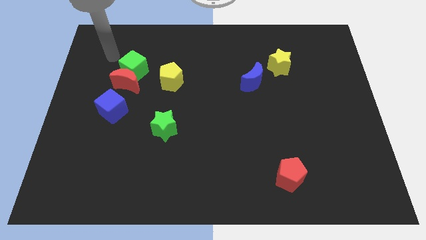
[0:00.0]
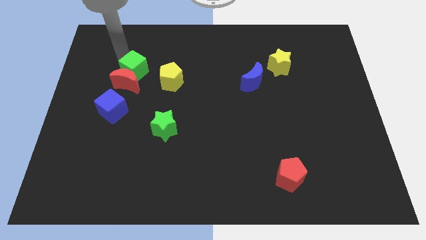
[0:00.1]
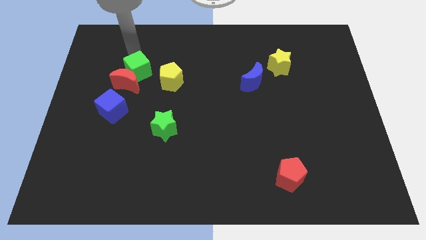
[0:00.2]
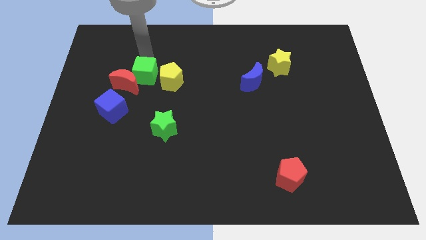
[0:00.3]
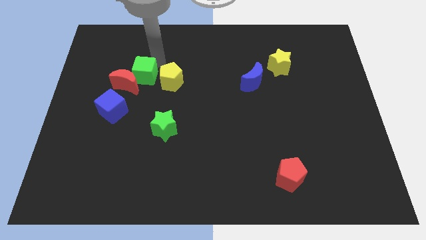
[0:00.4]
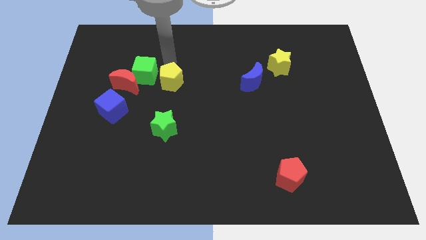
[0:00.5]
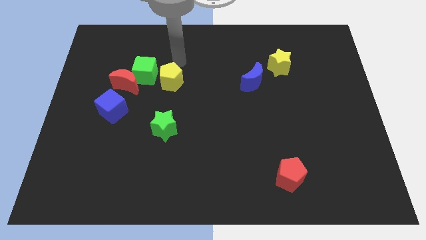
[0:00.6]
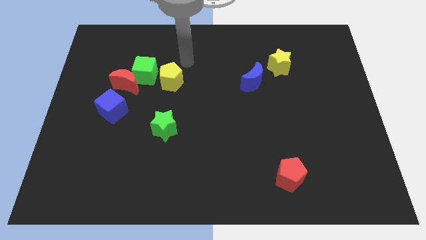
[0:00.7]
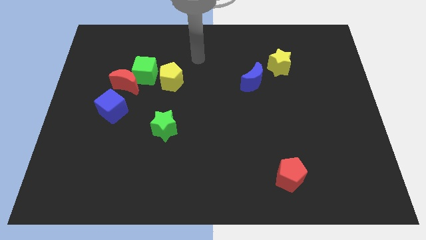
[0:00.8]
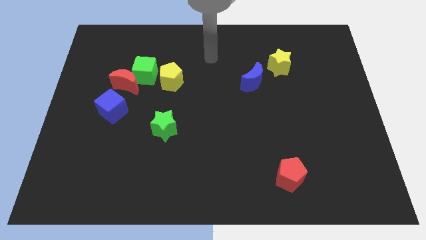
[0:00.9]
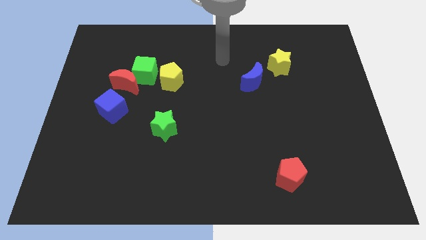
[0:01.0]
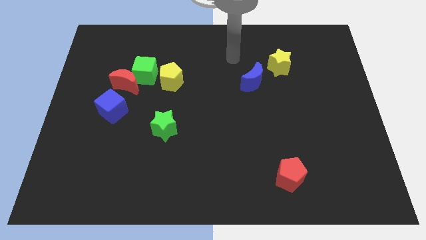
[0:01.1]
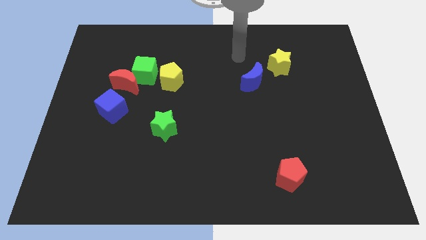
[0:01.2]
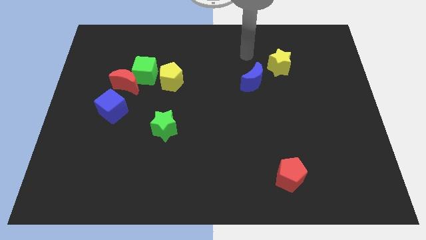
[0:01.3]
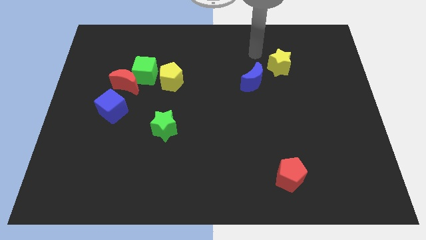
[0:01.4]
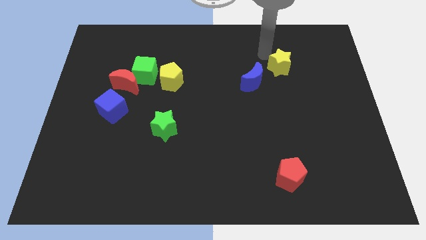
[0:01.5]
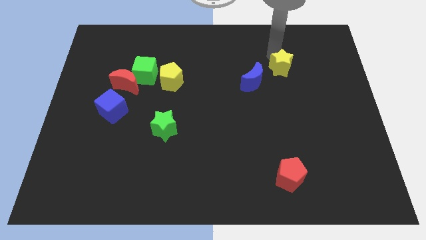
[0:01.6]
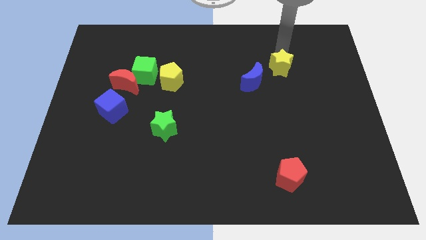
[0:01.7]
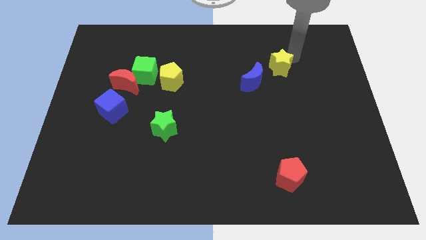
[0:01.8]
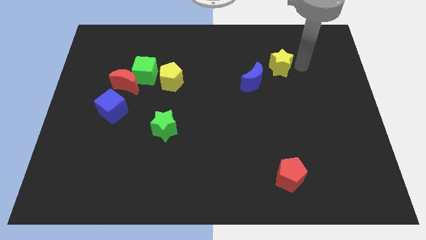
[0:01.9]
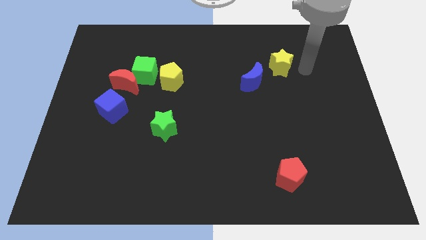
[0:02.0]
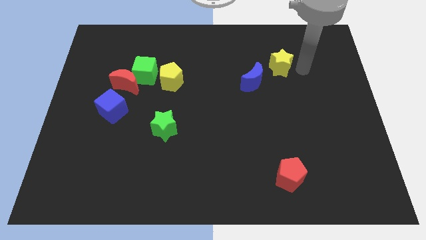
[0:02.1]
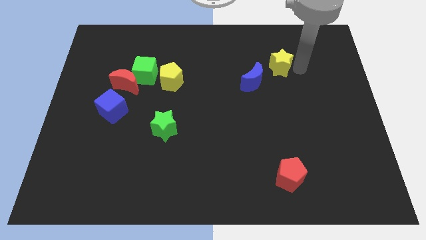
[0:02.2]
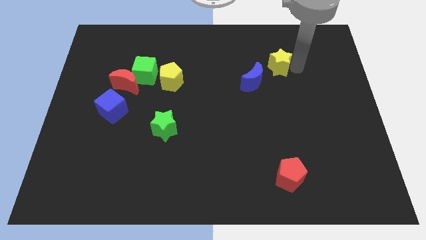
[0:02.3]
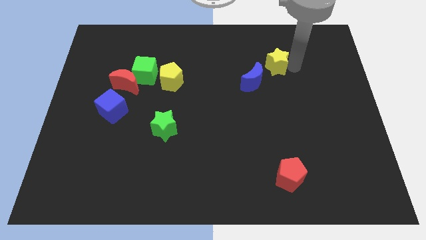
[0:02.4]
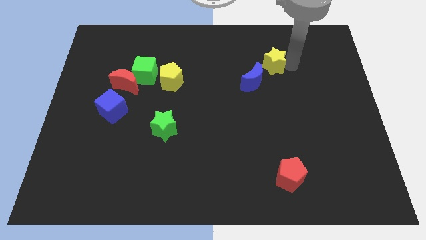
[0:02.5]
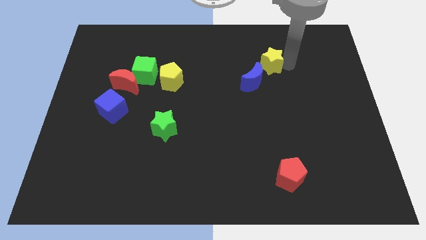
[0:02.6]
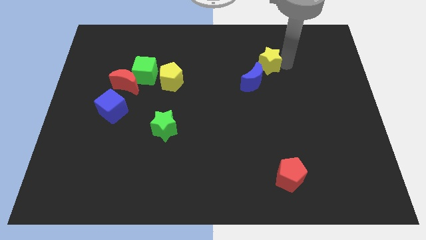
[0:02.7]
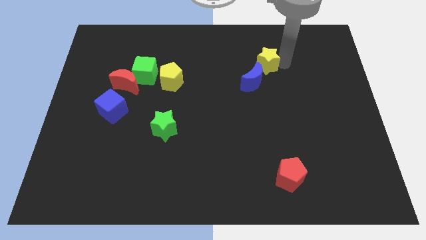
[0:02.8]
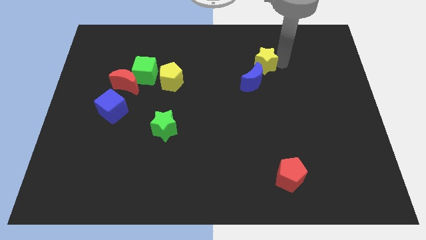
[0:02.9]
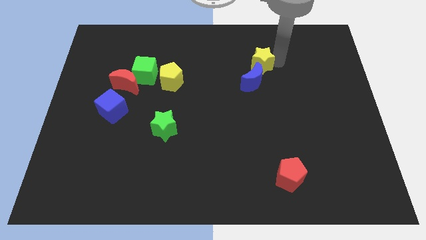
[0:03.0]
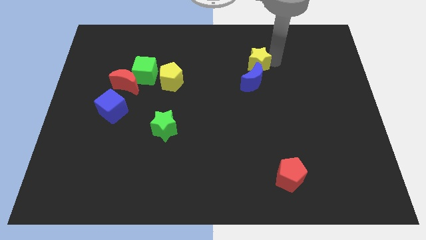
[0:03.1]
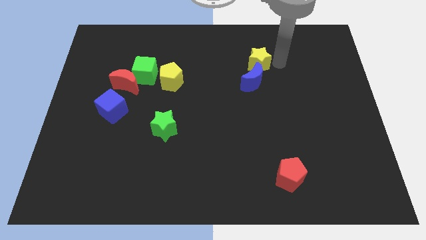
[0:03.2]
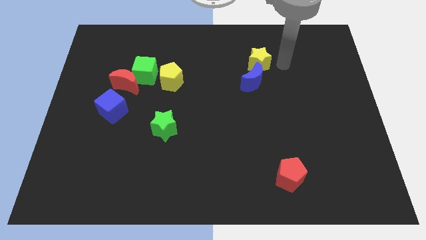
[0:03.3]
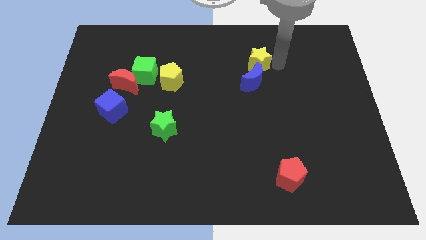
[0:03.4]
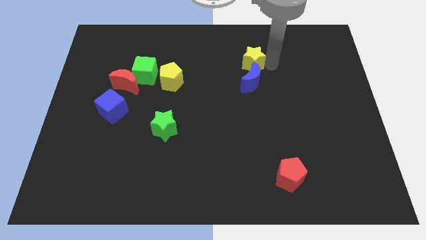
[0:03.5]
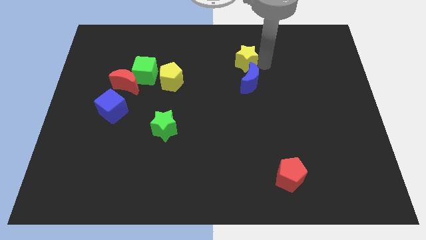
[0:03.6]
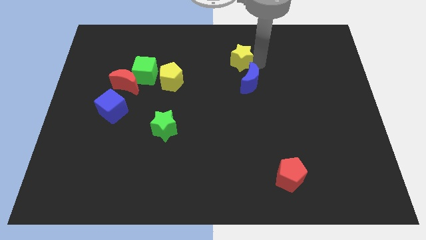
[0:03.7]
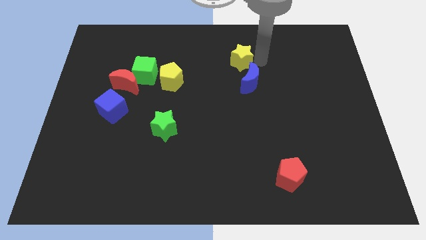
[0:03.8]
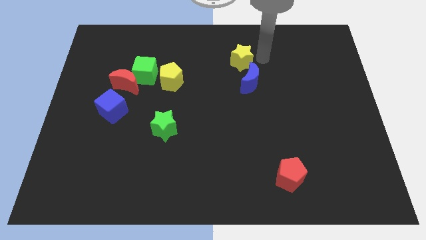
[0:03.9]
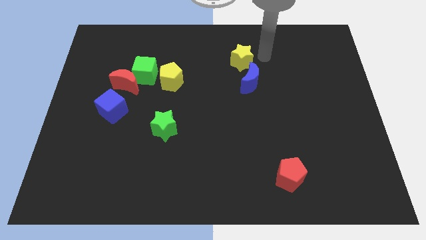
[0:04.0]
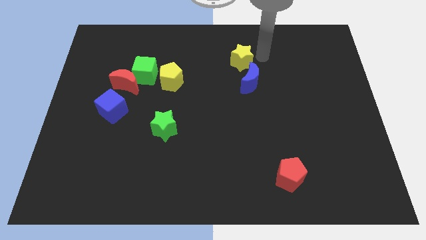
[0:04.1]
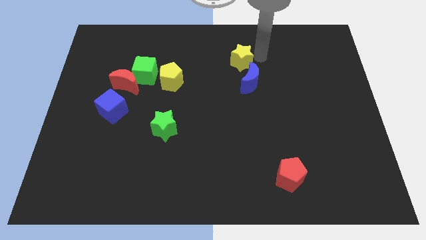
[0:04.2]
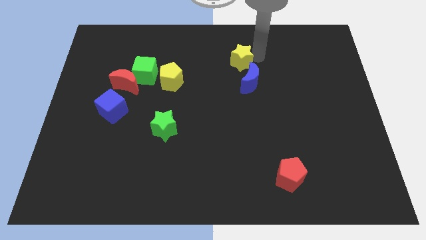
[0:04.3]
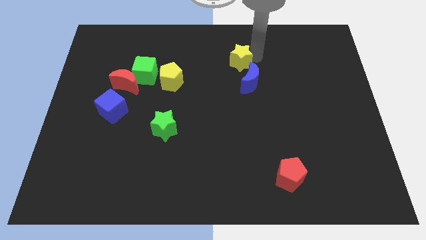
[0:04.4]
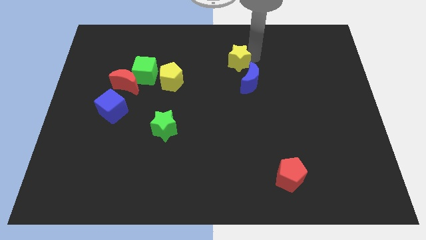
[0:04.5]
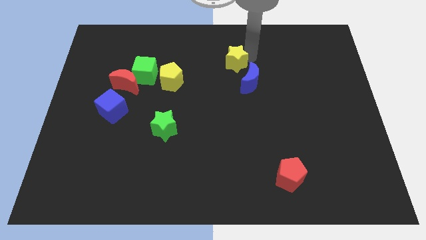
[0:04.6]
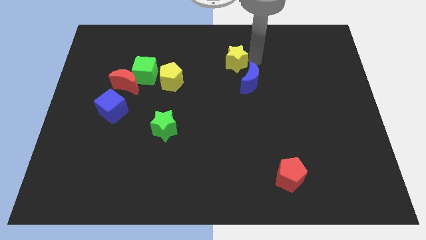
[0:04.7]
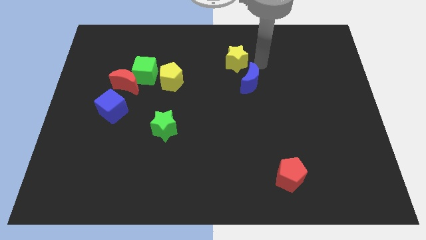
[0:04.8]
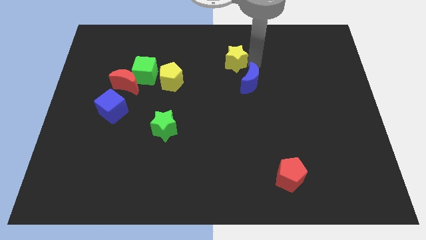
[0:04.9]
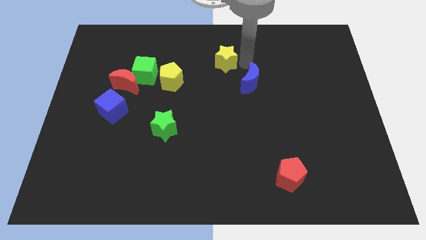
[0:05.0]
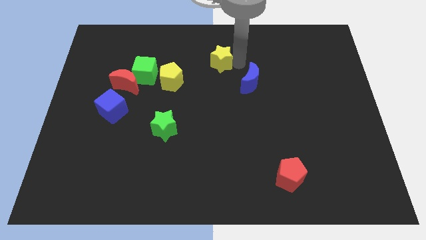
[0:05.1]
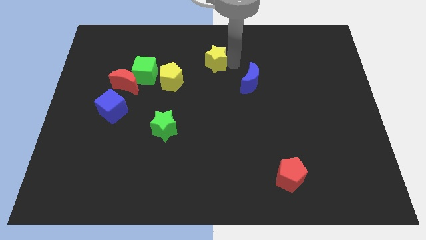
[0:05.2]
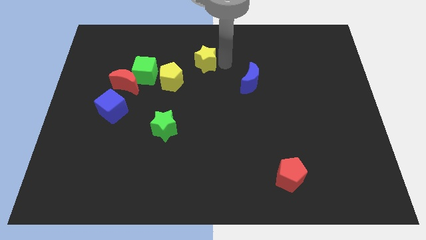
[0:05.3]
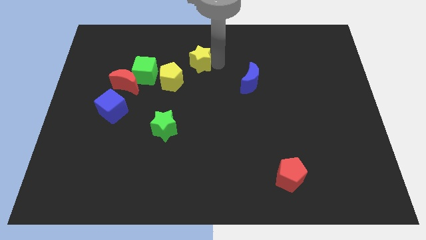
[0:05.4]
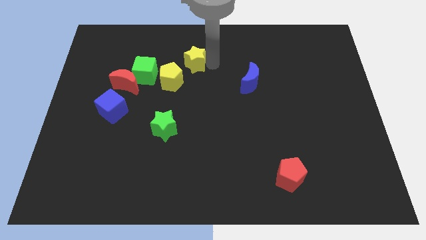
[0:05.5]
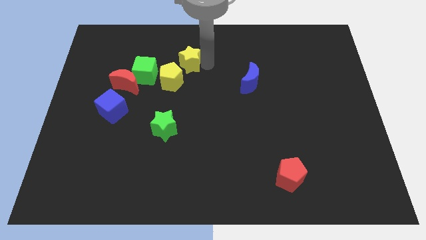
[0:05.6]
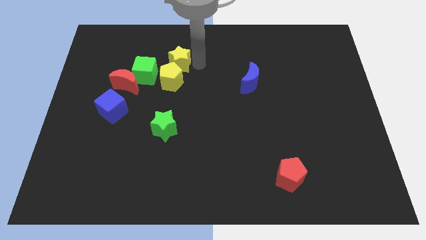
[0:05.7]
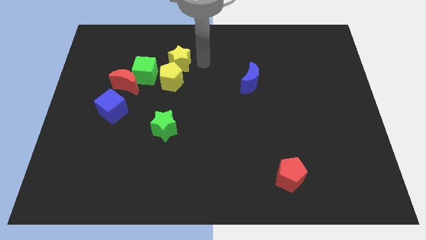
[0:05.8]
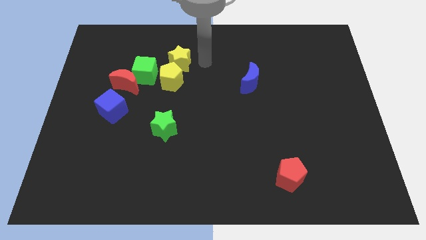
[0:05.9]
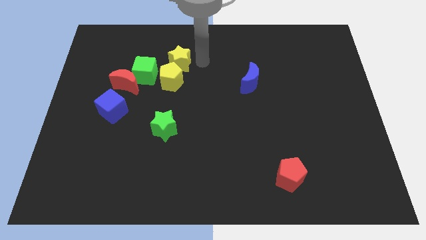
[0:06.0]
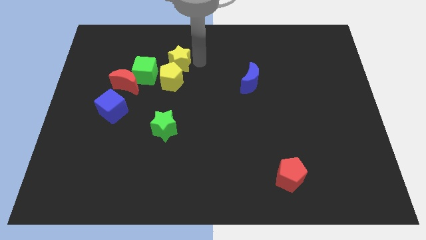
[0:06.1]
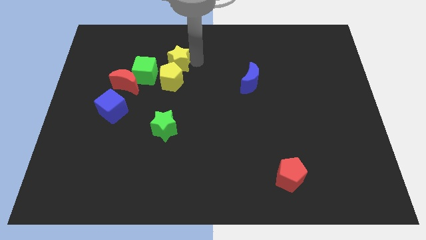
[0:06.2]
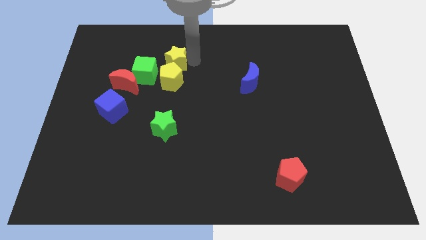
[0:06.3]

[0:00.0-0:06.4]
put the yellow star to the top left of the yellow pentagon

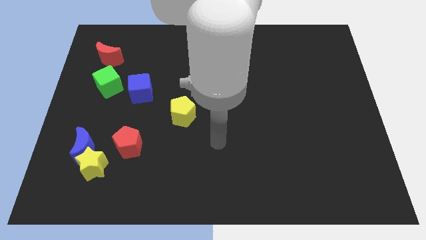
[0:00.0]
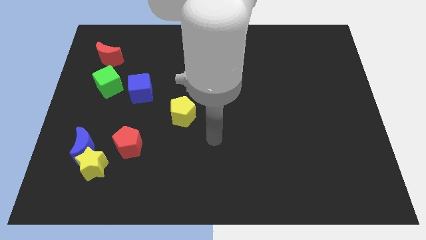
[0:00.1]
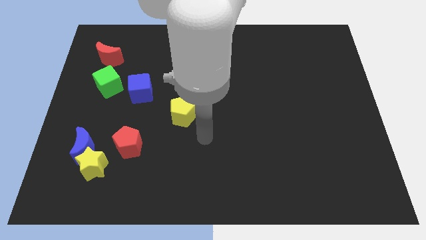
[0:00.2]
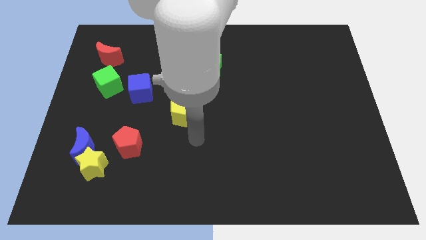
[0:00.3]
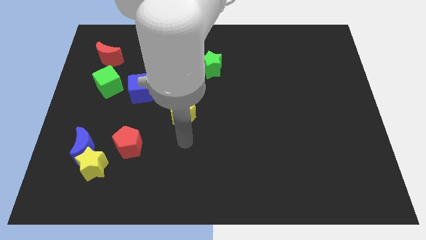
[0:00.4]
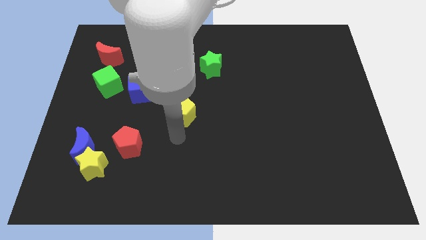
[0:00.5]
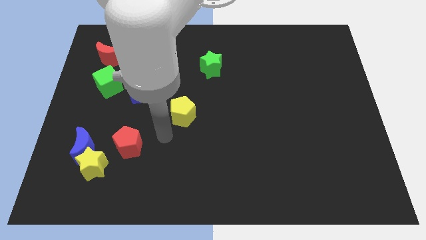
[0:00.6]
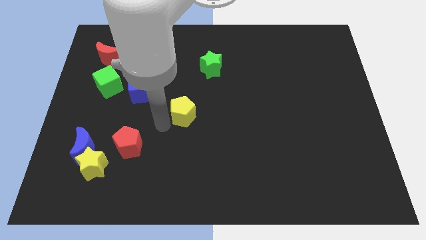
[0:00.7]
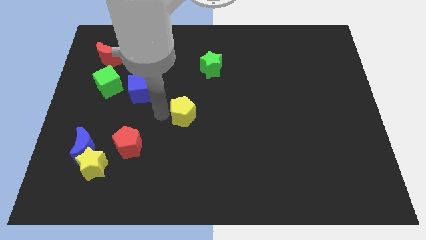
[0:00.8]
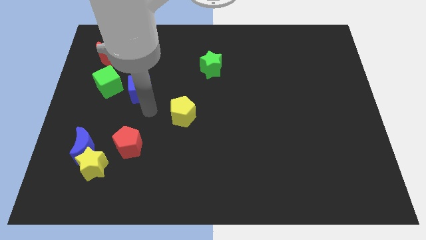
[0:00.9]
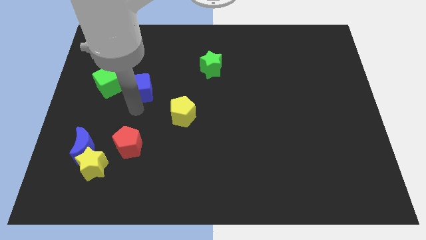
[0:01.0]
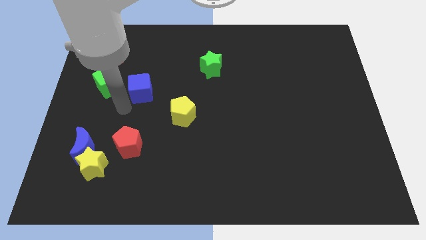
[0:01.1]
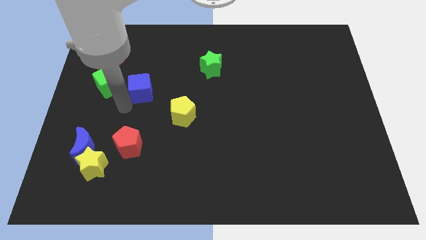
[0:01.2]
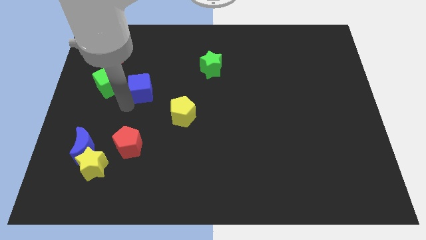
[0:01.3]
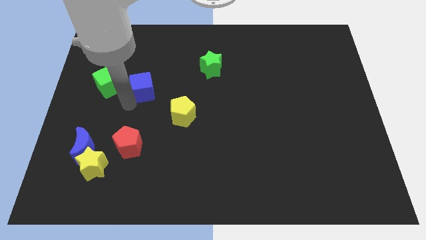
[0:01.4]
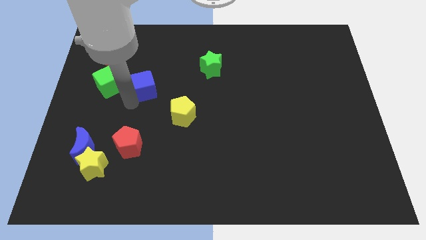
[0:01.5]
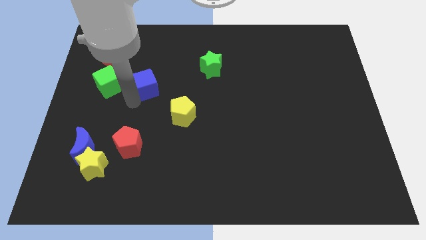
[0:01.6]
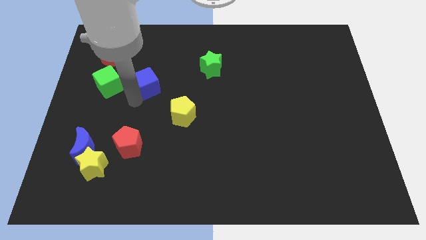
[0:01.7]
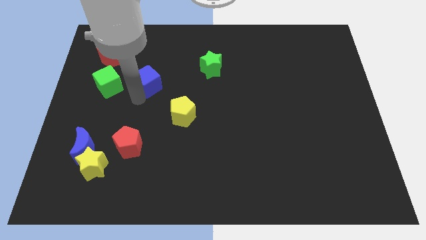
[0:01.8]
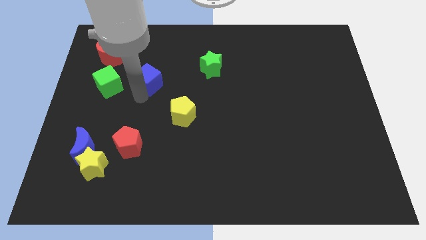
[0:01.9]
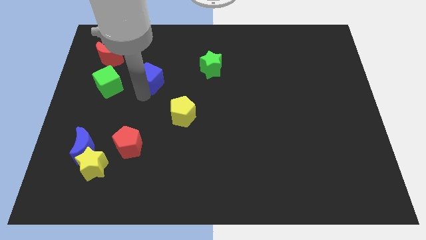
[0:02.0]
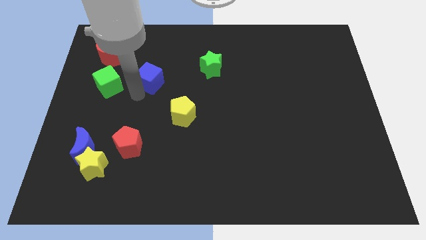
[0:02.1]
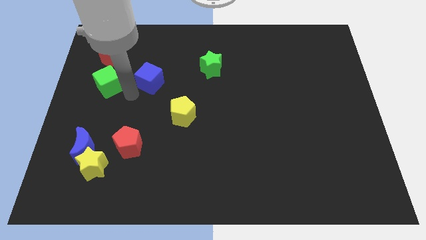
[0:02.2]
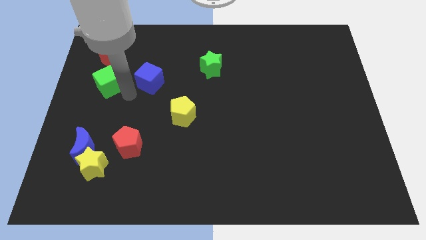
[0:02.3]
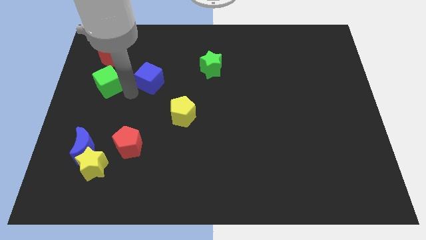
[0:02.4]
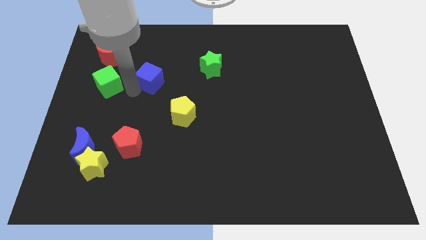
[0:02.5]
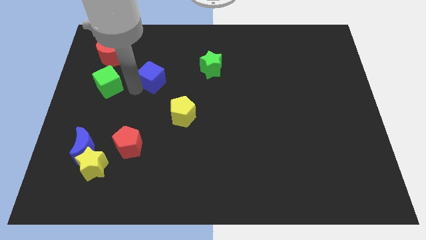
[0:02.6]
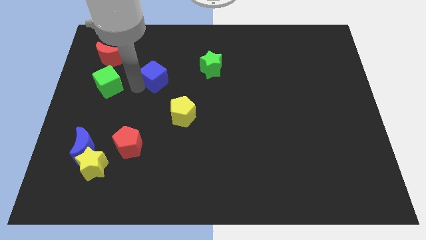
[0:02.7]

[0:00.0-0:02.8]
push the blue cube to the left side of the green star
